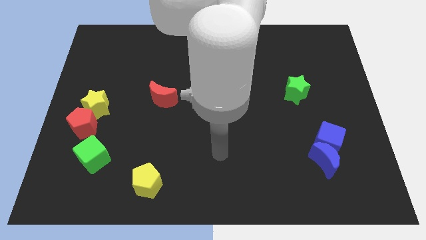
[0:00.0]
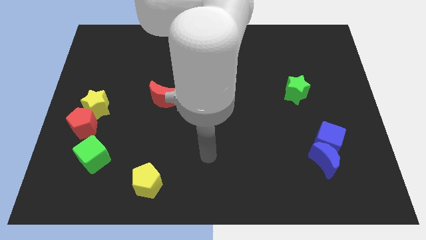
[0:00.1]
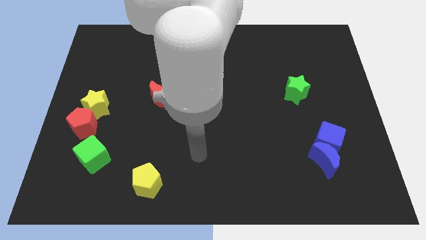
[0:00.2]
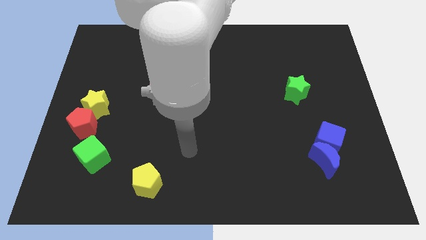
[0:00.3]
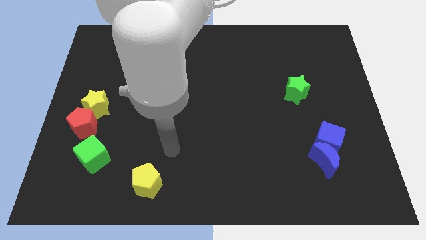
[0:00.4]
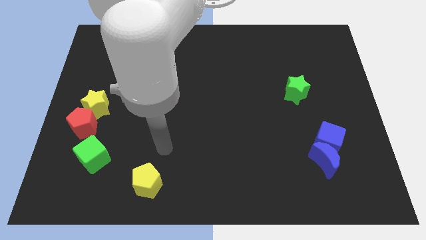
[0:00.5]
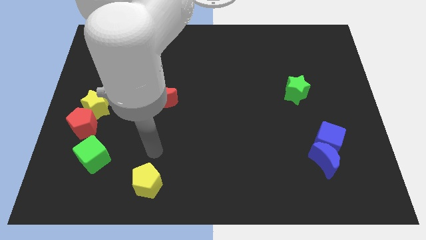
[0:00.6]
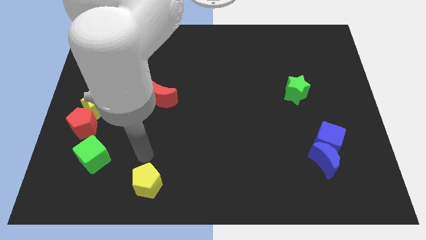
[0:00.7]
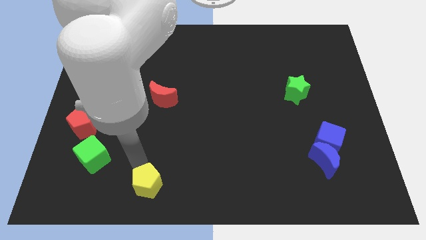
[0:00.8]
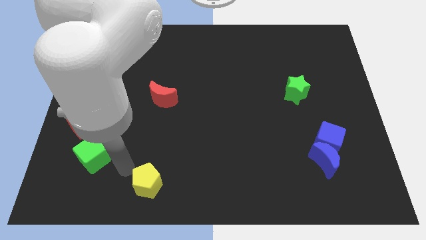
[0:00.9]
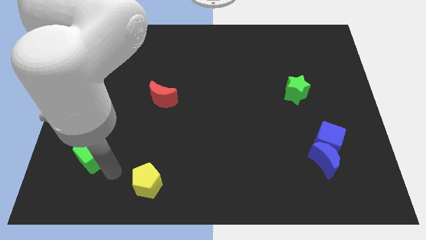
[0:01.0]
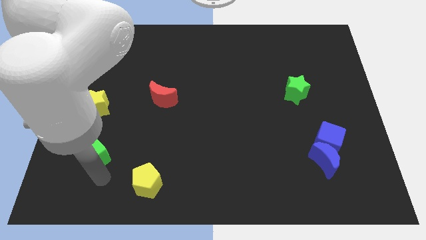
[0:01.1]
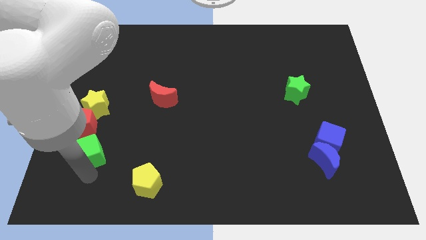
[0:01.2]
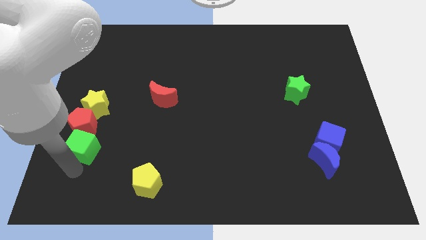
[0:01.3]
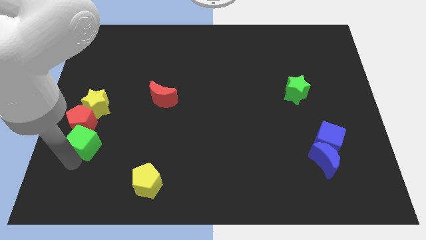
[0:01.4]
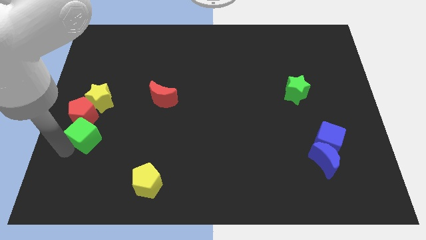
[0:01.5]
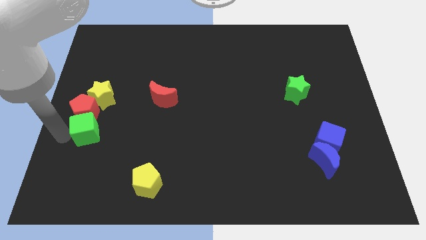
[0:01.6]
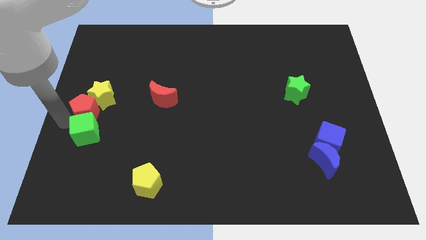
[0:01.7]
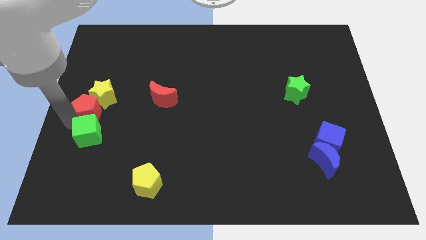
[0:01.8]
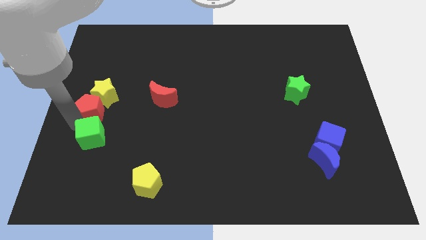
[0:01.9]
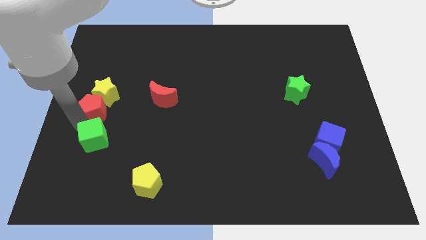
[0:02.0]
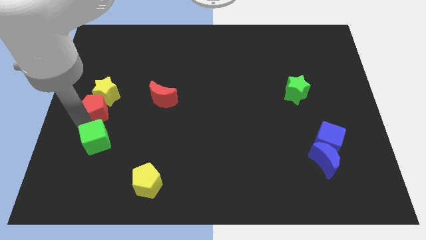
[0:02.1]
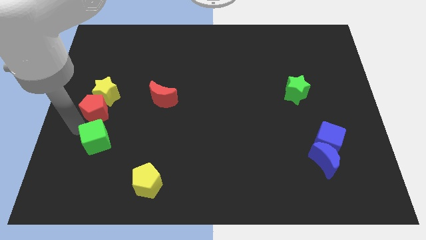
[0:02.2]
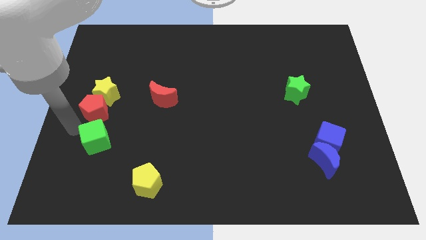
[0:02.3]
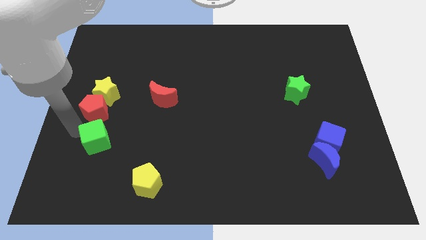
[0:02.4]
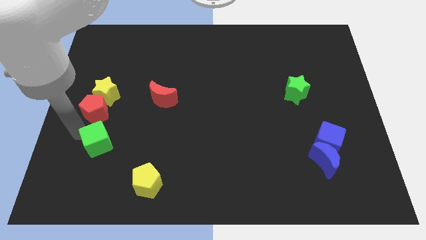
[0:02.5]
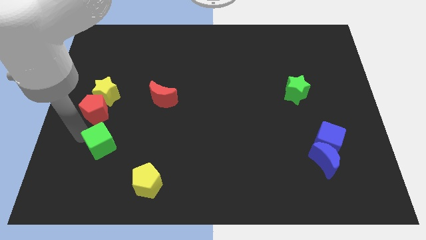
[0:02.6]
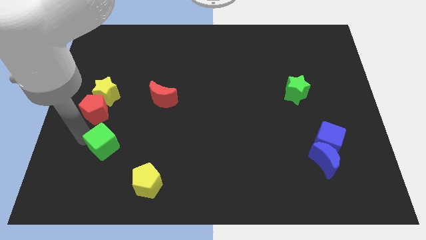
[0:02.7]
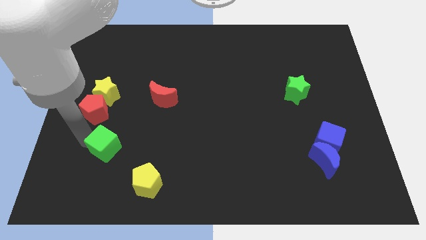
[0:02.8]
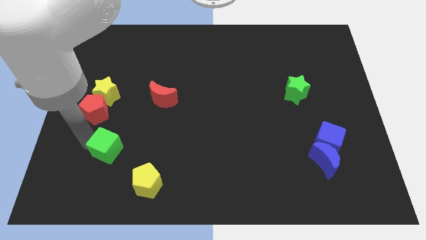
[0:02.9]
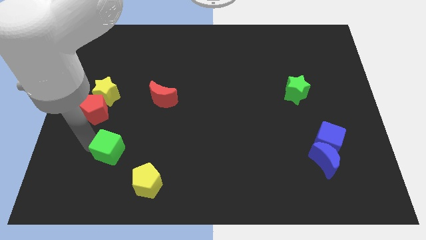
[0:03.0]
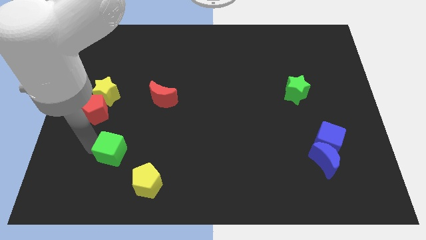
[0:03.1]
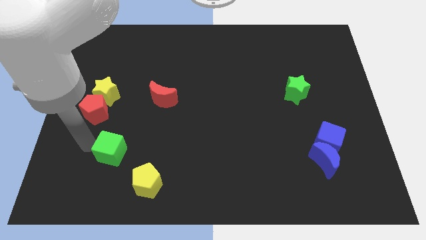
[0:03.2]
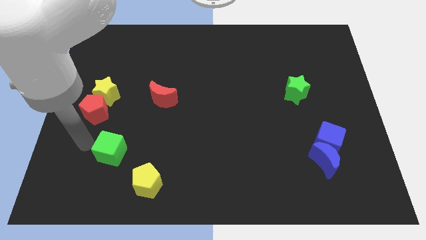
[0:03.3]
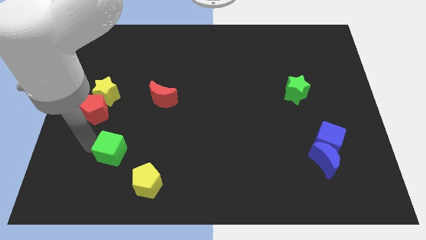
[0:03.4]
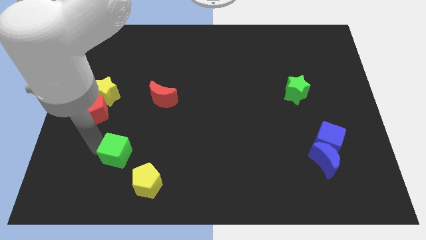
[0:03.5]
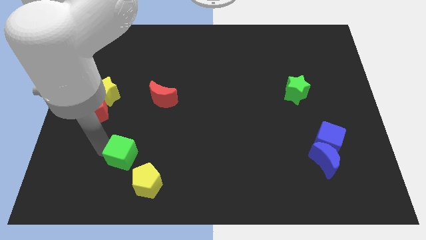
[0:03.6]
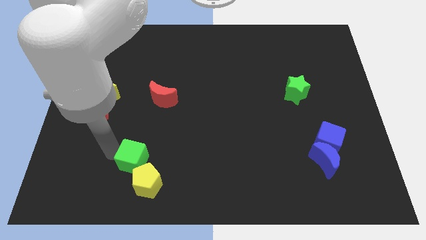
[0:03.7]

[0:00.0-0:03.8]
slightly move the green cube to the right

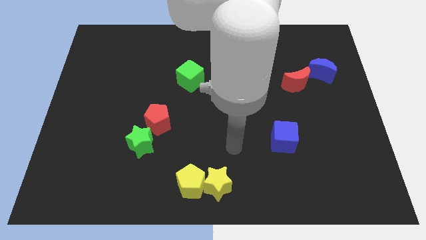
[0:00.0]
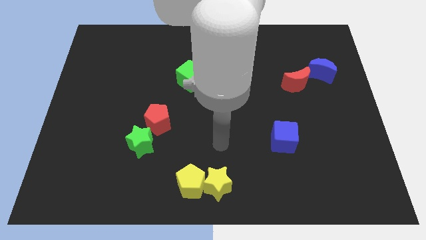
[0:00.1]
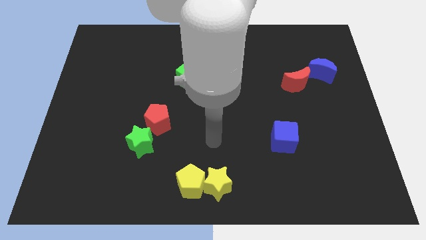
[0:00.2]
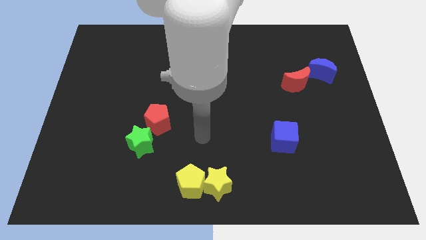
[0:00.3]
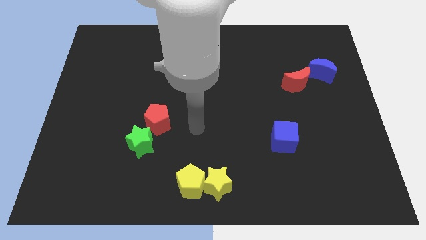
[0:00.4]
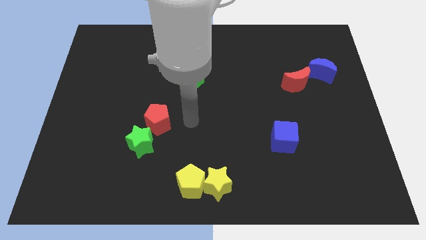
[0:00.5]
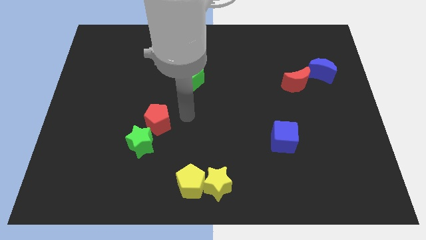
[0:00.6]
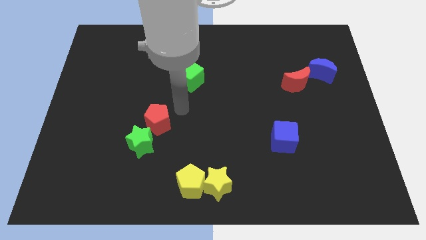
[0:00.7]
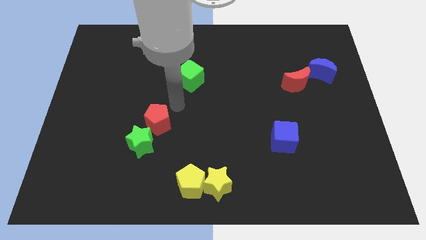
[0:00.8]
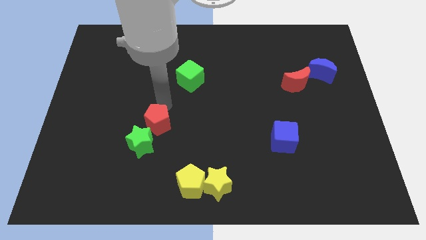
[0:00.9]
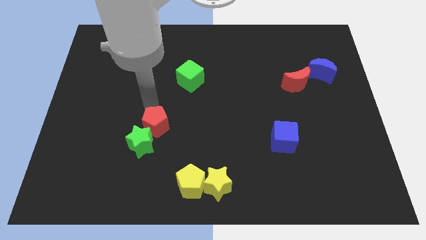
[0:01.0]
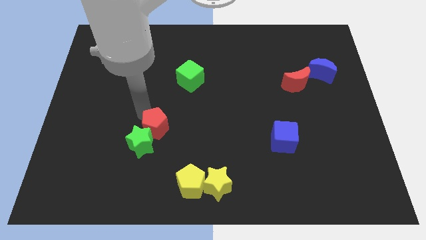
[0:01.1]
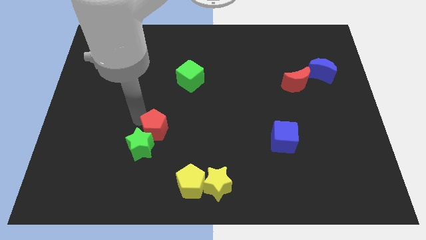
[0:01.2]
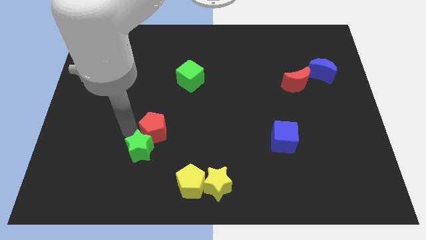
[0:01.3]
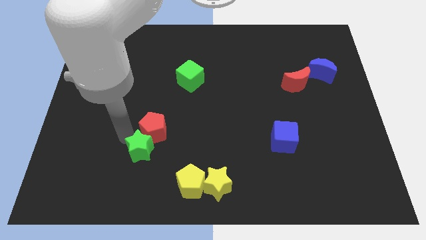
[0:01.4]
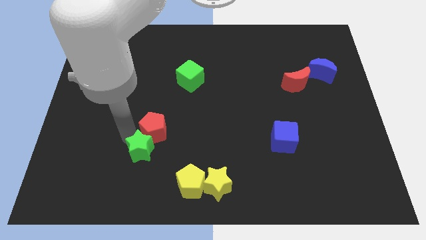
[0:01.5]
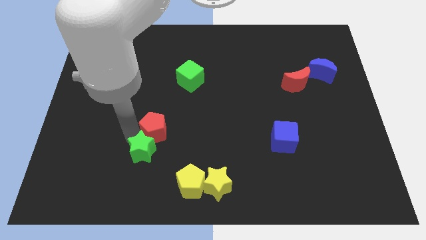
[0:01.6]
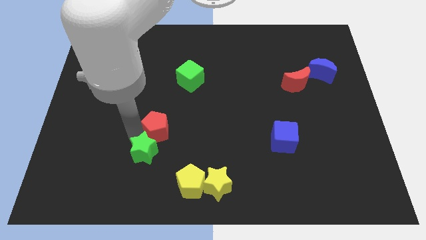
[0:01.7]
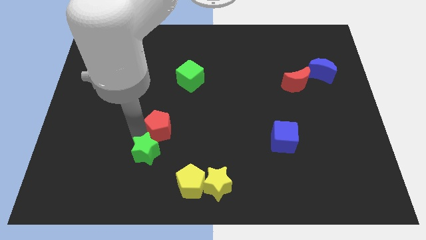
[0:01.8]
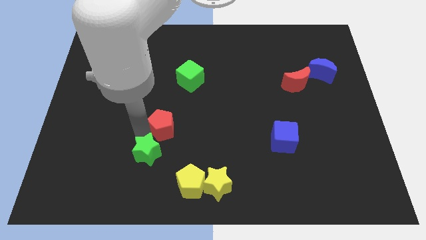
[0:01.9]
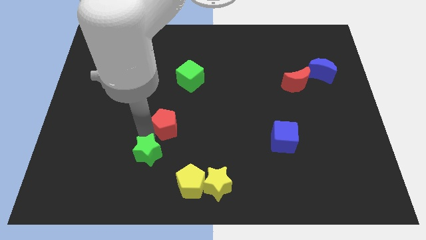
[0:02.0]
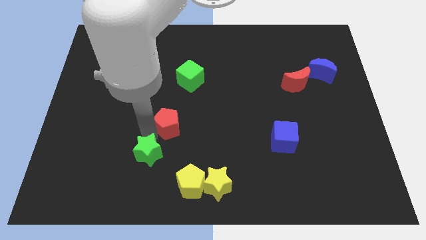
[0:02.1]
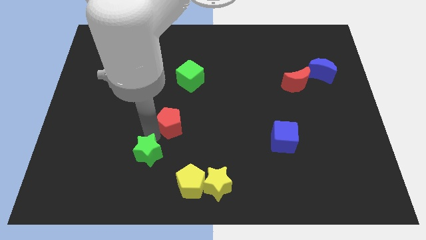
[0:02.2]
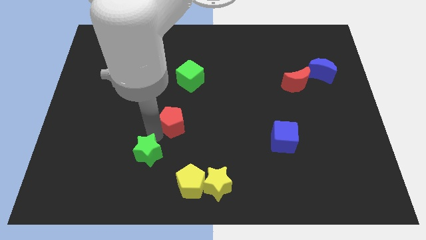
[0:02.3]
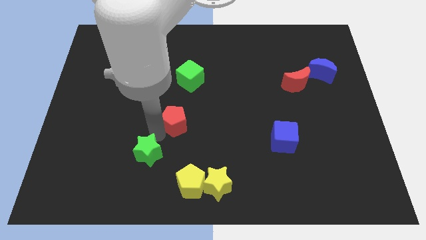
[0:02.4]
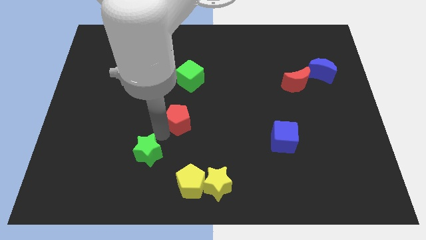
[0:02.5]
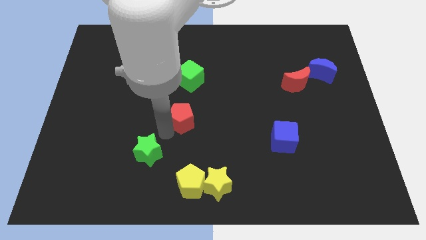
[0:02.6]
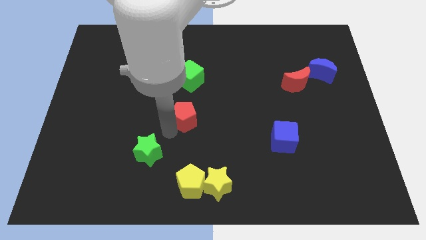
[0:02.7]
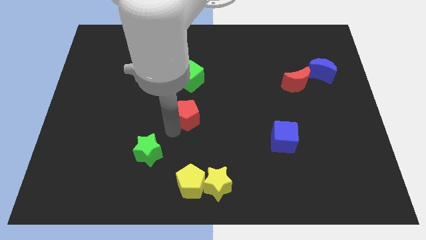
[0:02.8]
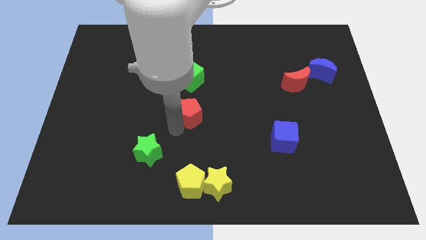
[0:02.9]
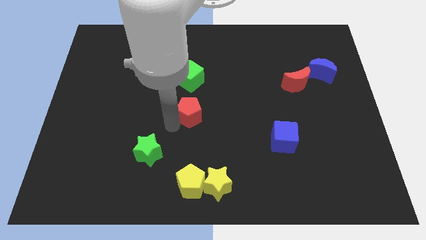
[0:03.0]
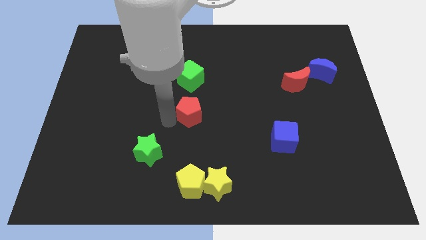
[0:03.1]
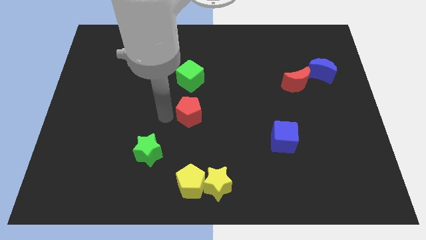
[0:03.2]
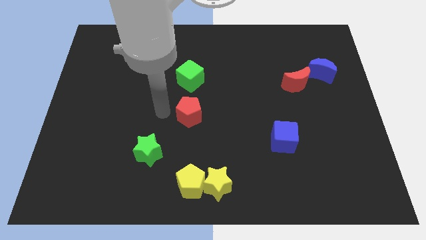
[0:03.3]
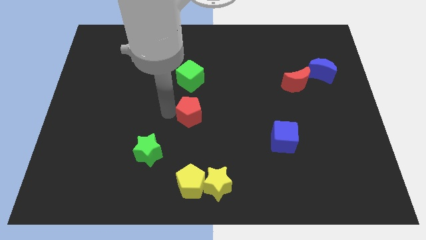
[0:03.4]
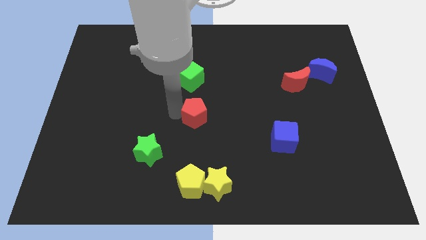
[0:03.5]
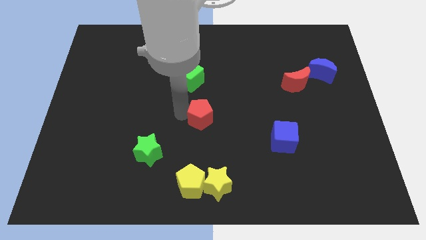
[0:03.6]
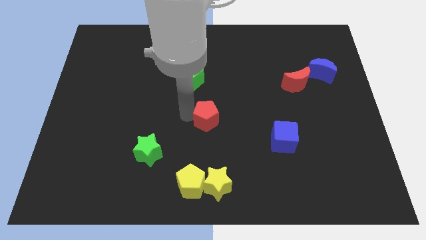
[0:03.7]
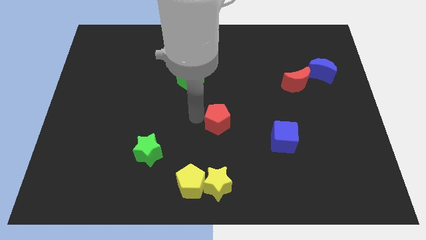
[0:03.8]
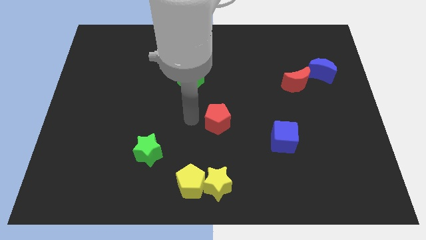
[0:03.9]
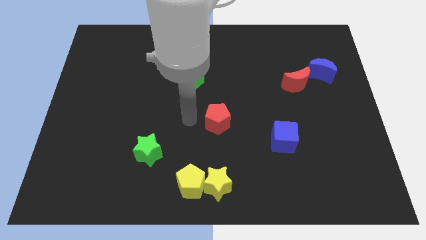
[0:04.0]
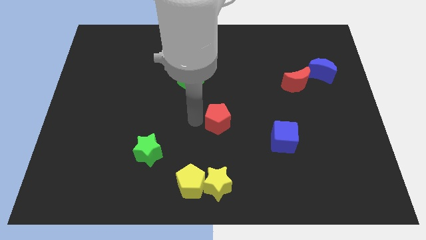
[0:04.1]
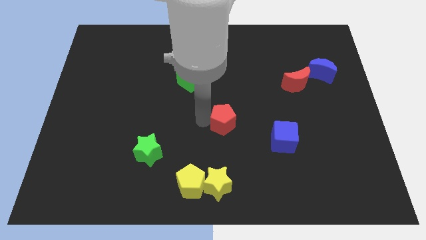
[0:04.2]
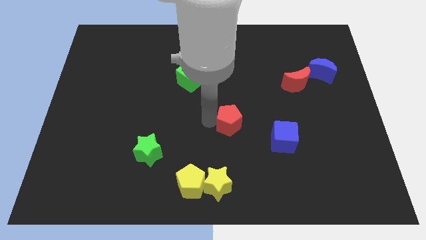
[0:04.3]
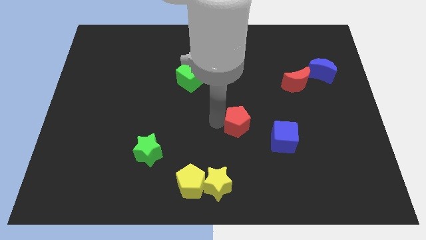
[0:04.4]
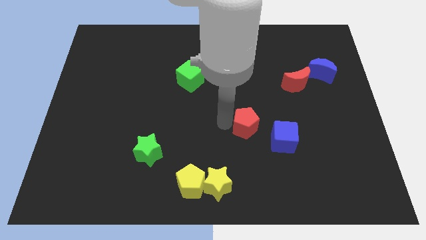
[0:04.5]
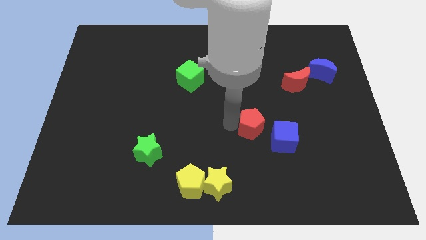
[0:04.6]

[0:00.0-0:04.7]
slide the red pentagon right
